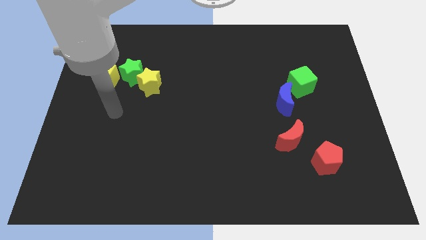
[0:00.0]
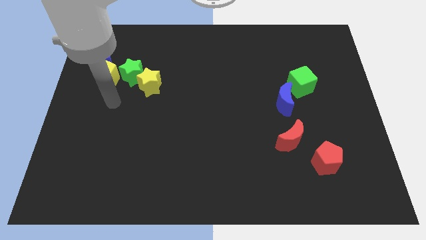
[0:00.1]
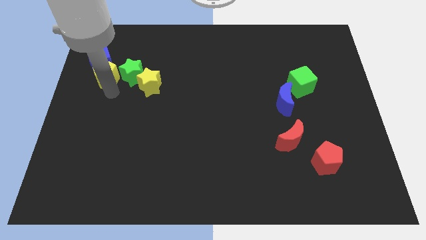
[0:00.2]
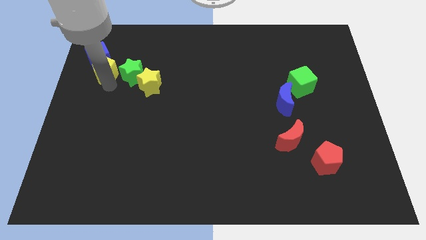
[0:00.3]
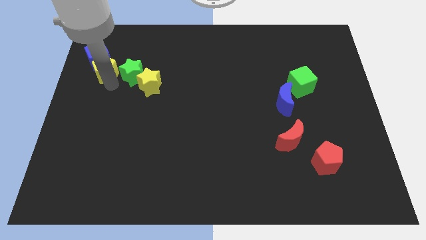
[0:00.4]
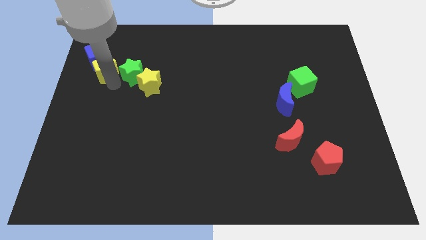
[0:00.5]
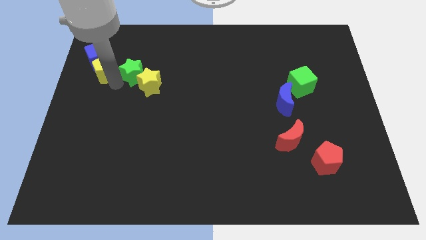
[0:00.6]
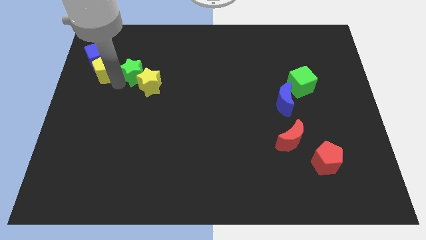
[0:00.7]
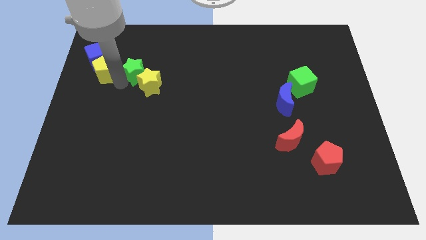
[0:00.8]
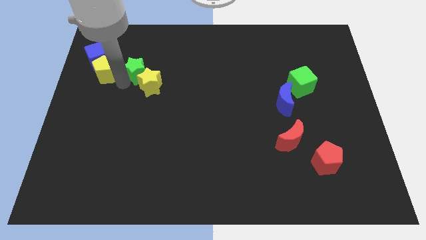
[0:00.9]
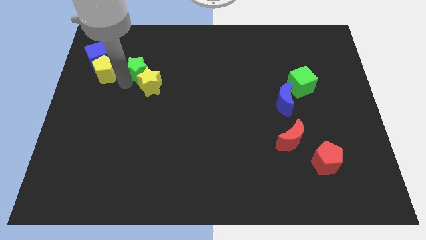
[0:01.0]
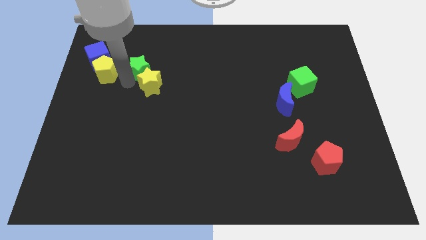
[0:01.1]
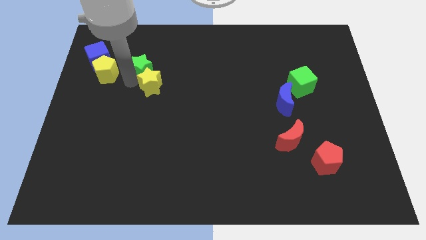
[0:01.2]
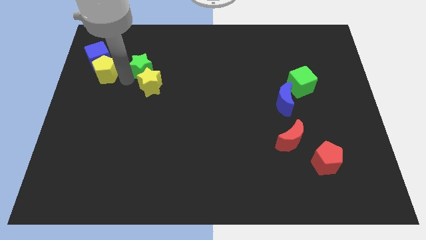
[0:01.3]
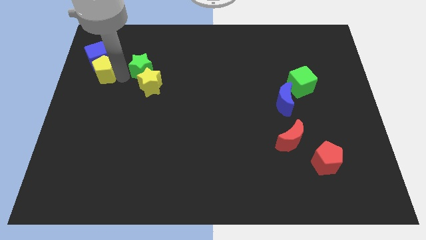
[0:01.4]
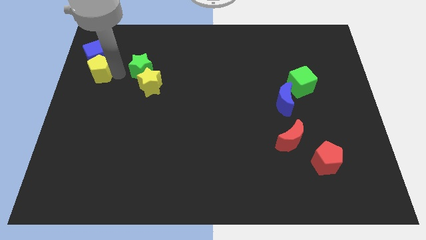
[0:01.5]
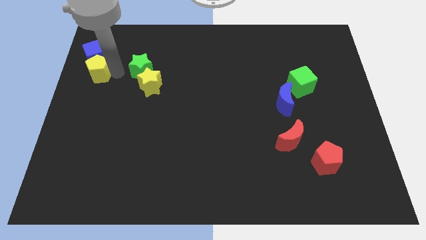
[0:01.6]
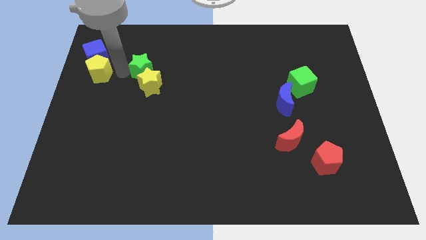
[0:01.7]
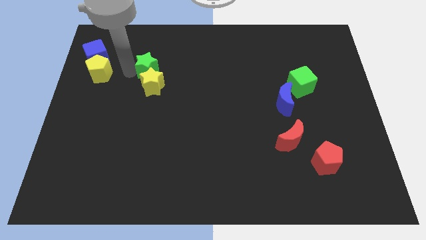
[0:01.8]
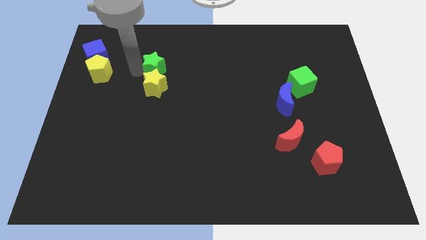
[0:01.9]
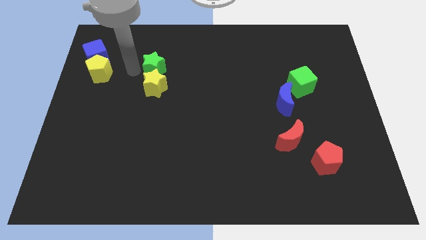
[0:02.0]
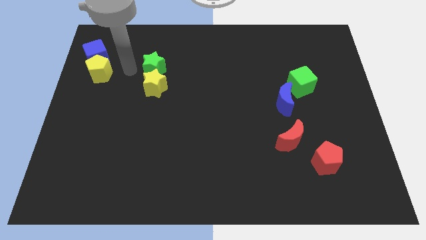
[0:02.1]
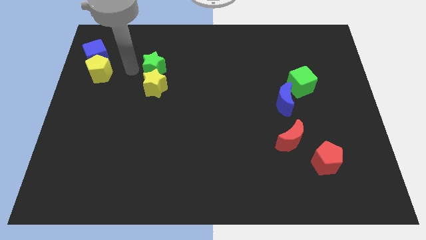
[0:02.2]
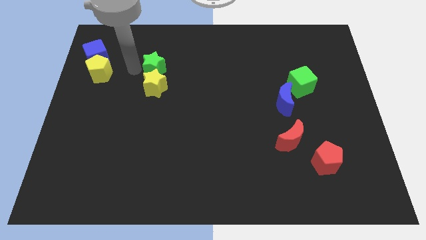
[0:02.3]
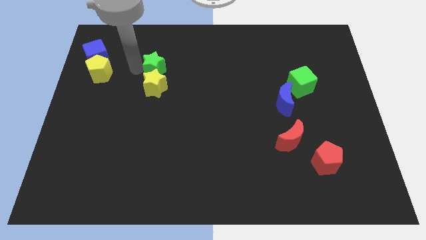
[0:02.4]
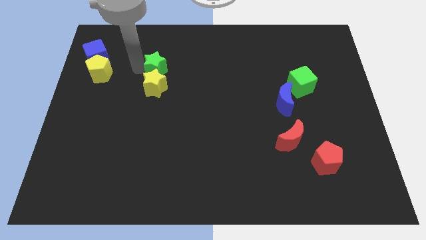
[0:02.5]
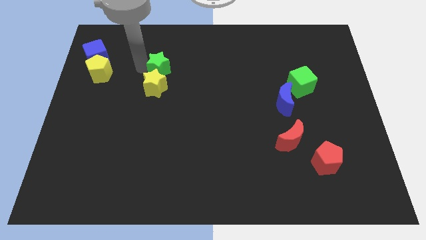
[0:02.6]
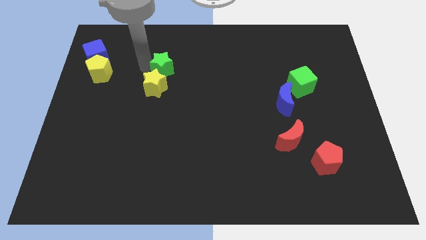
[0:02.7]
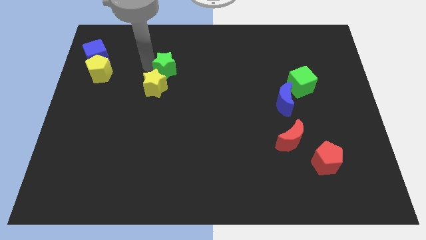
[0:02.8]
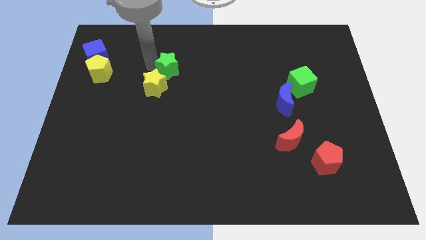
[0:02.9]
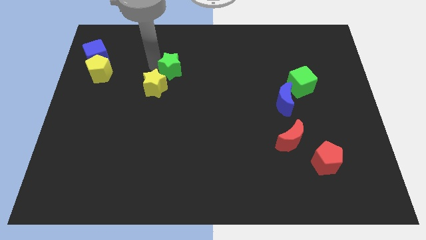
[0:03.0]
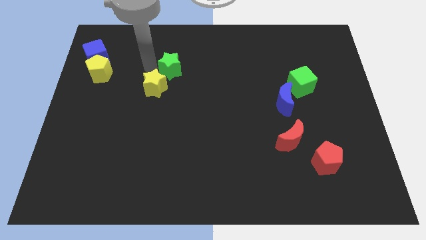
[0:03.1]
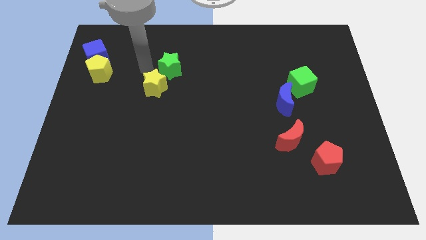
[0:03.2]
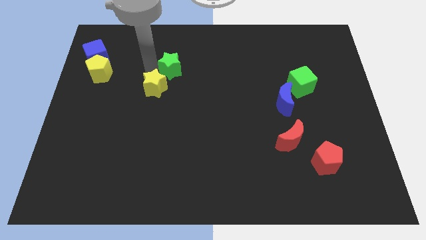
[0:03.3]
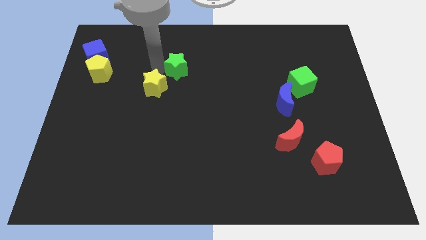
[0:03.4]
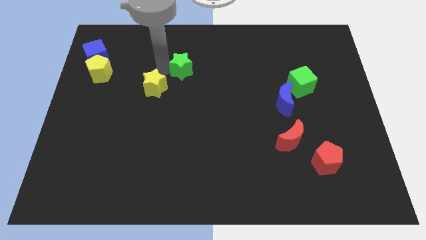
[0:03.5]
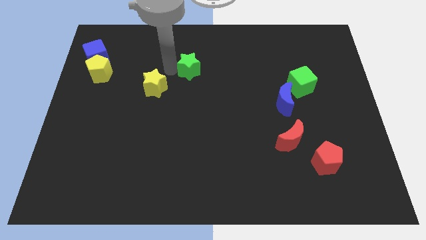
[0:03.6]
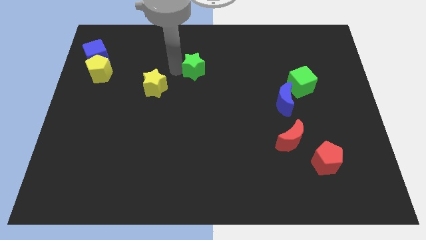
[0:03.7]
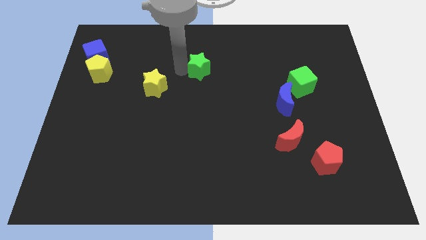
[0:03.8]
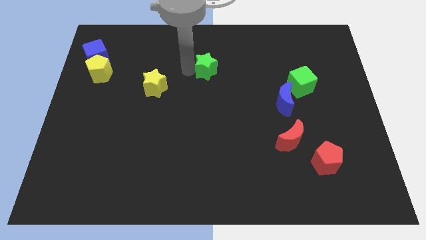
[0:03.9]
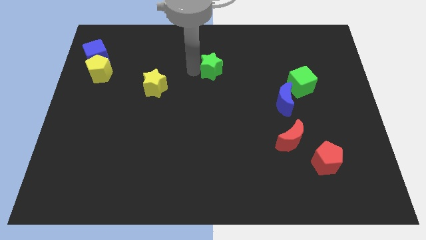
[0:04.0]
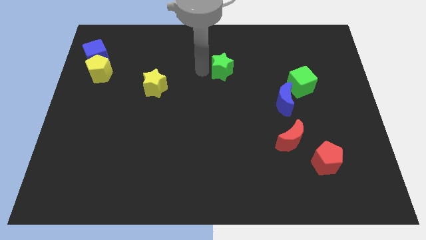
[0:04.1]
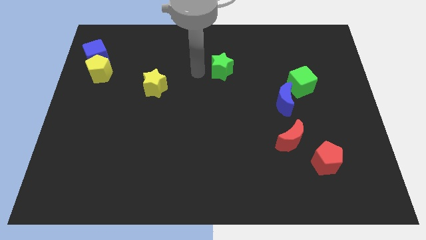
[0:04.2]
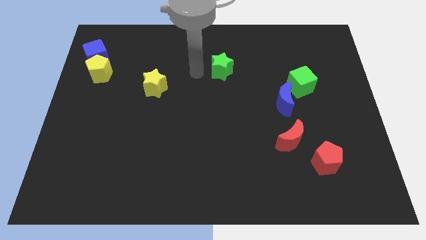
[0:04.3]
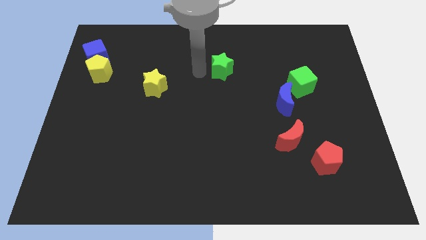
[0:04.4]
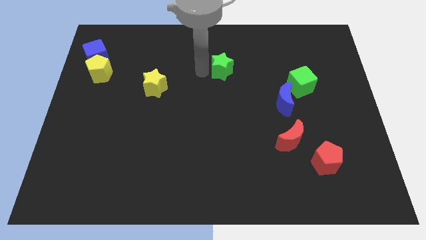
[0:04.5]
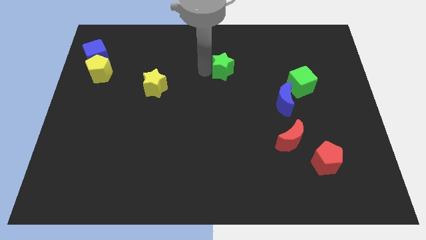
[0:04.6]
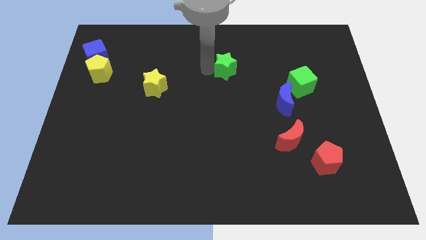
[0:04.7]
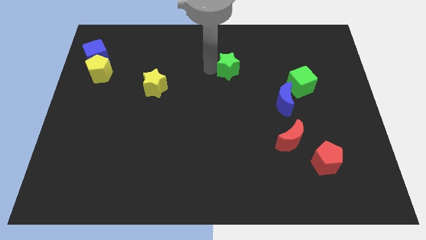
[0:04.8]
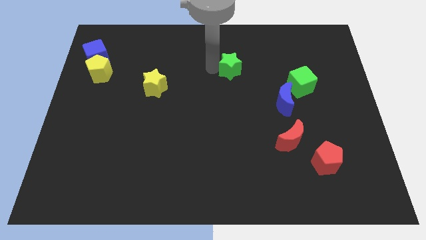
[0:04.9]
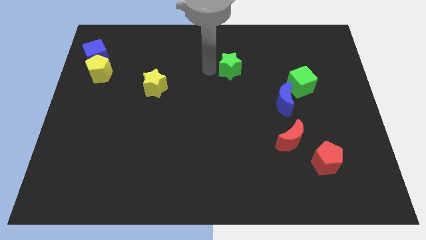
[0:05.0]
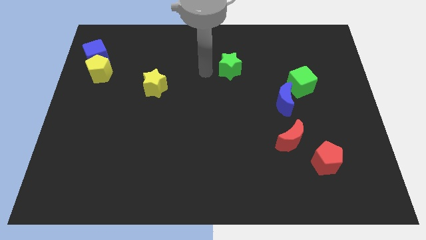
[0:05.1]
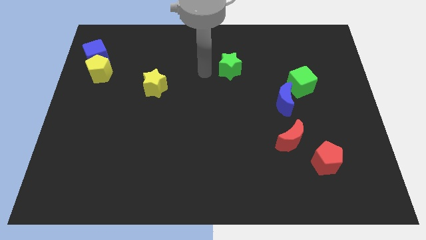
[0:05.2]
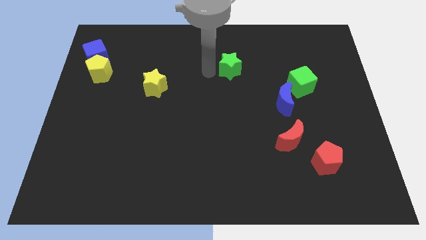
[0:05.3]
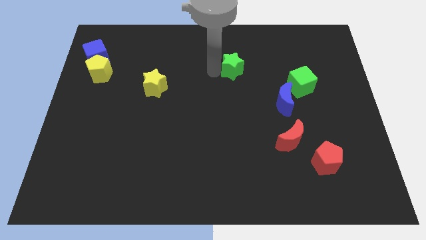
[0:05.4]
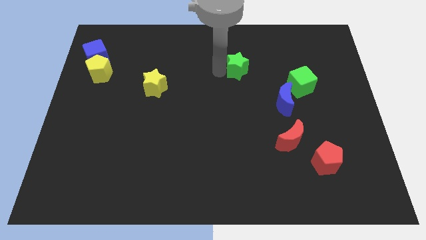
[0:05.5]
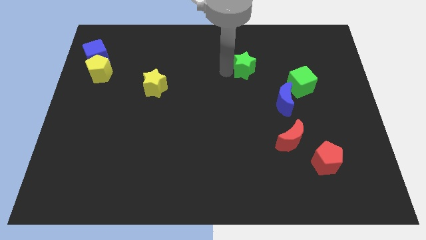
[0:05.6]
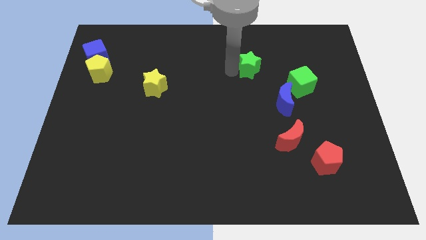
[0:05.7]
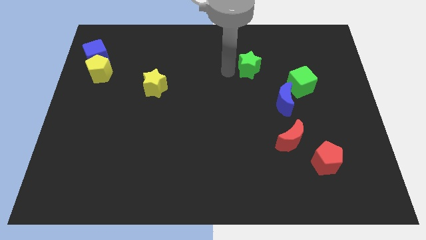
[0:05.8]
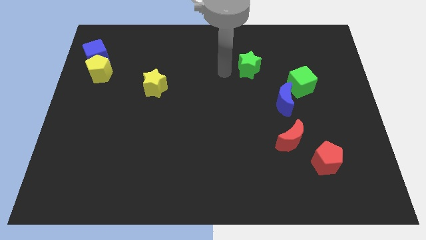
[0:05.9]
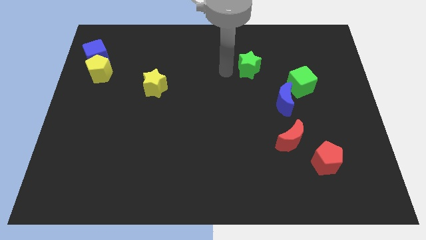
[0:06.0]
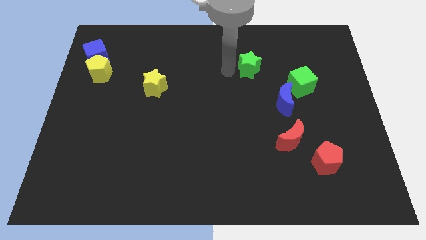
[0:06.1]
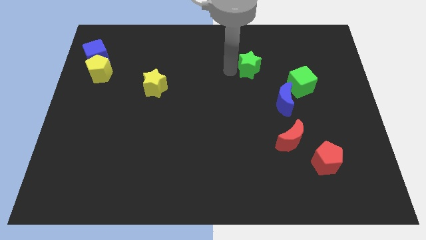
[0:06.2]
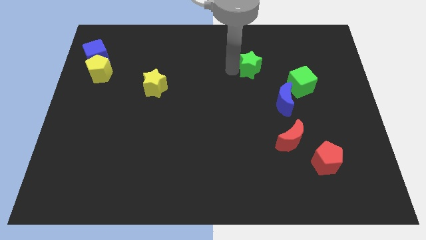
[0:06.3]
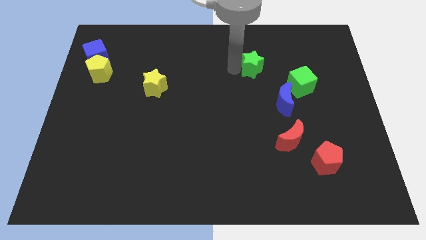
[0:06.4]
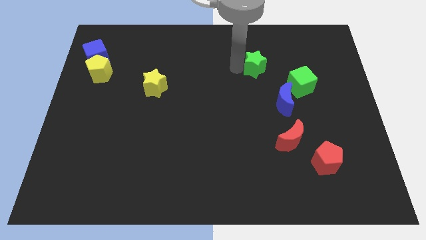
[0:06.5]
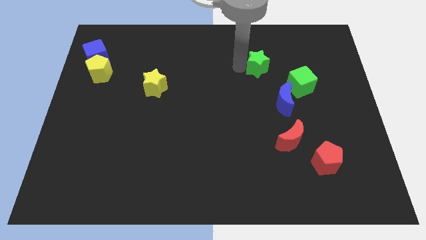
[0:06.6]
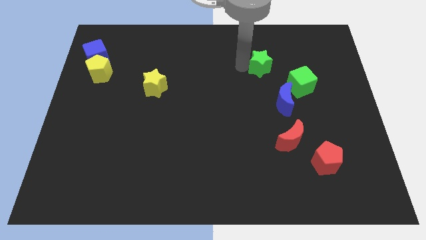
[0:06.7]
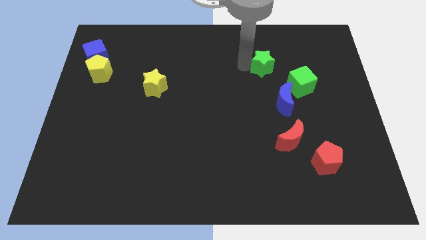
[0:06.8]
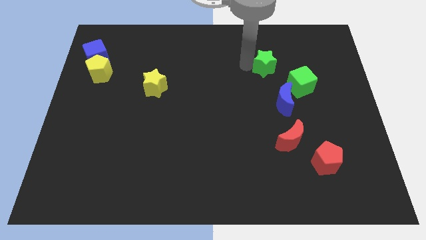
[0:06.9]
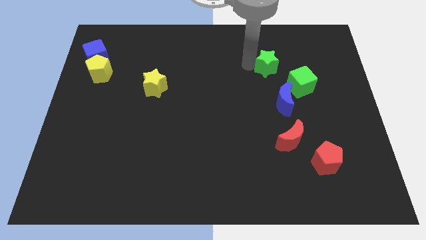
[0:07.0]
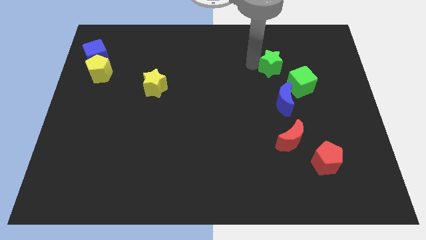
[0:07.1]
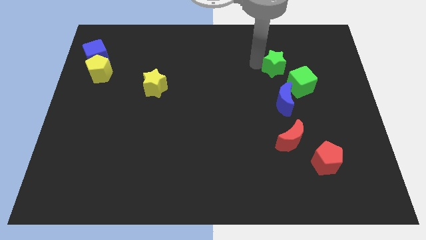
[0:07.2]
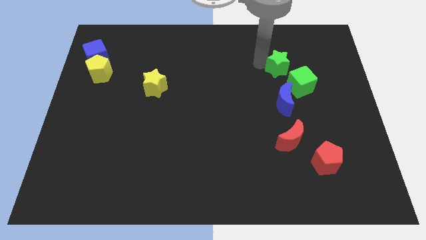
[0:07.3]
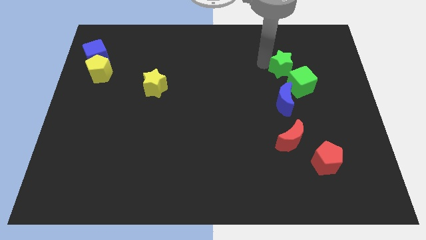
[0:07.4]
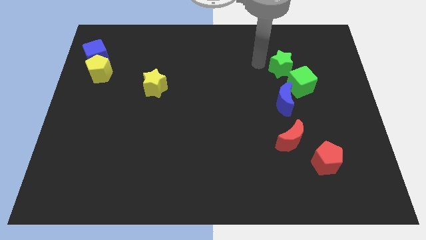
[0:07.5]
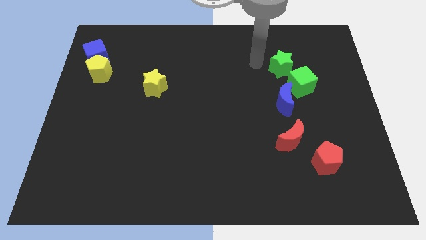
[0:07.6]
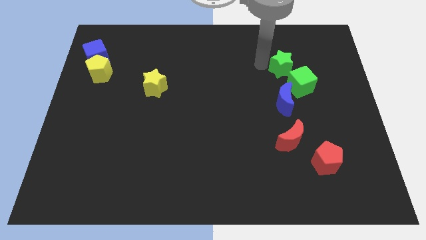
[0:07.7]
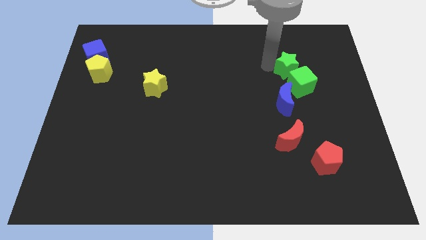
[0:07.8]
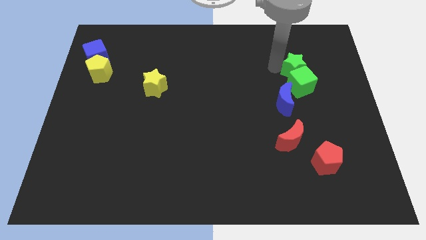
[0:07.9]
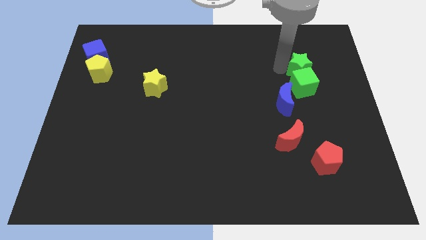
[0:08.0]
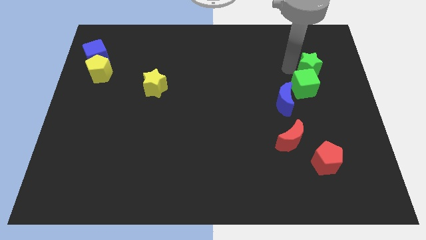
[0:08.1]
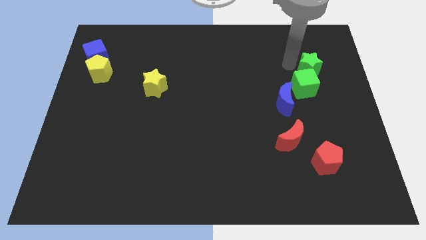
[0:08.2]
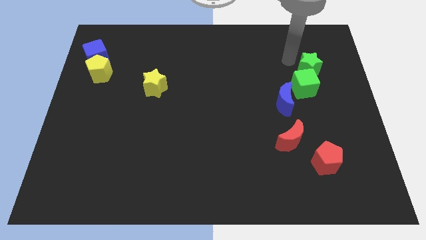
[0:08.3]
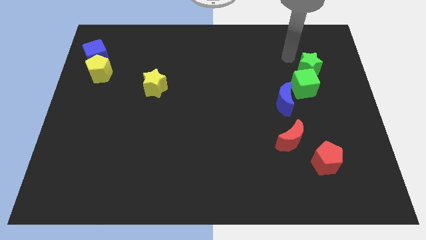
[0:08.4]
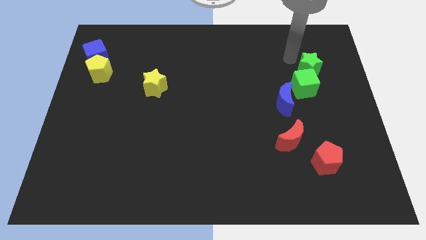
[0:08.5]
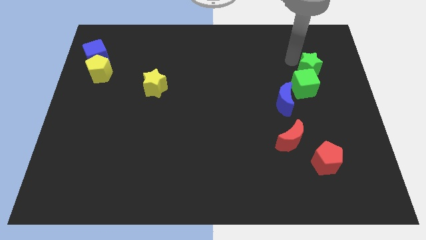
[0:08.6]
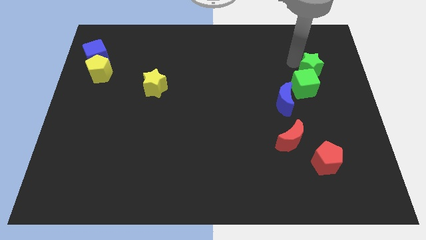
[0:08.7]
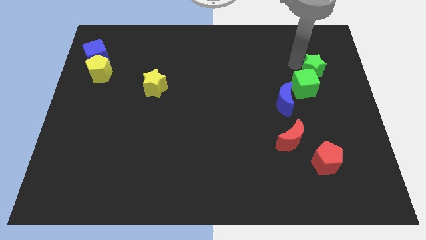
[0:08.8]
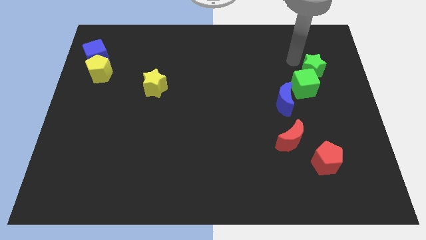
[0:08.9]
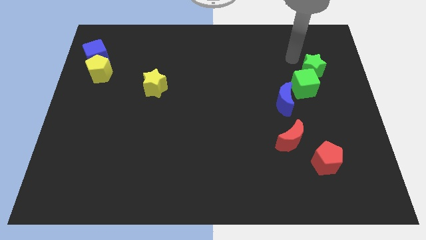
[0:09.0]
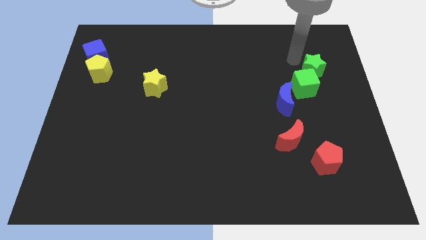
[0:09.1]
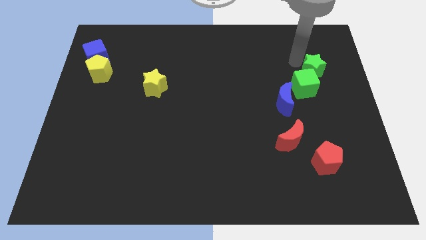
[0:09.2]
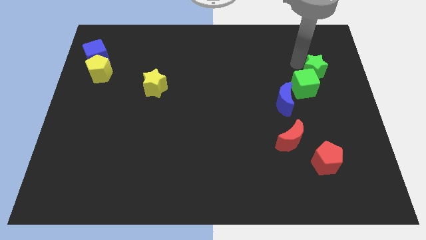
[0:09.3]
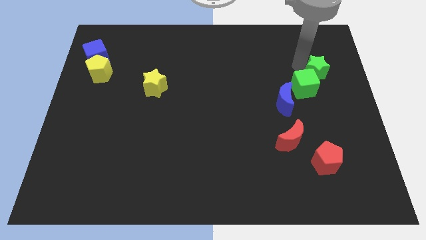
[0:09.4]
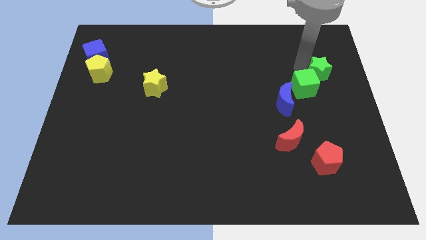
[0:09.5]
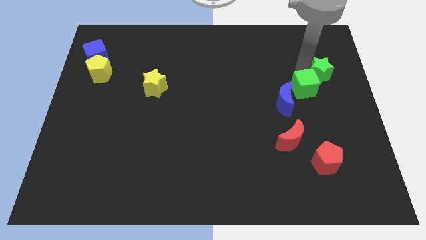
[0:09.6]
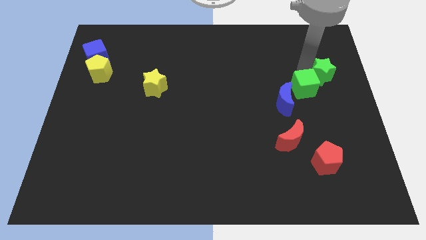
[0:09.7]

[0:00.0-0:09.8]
slide the green star to the right side of the board
